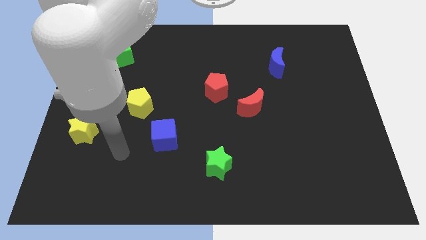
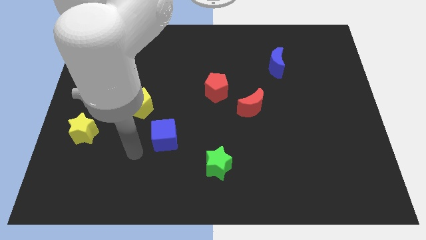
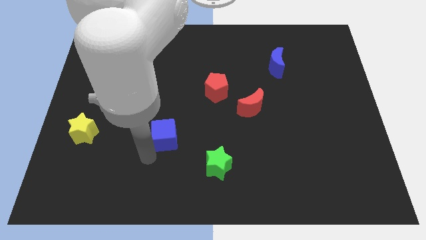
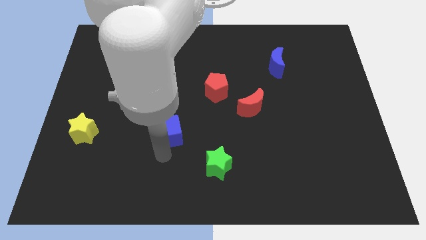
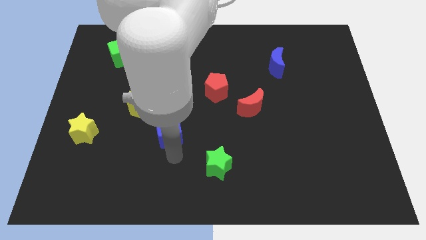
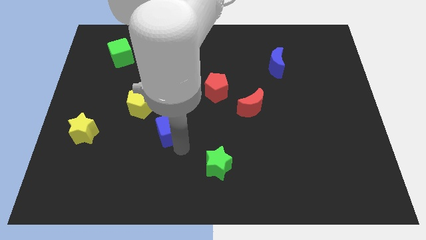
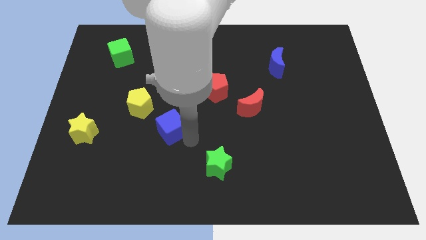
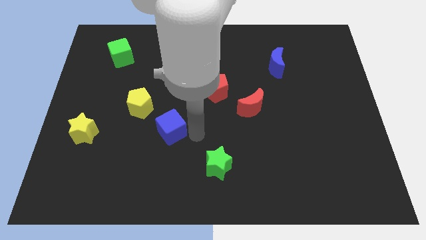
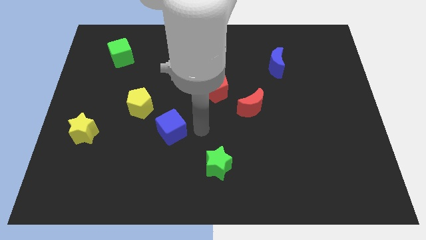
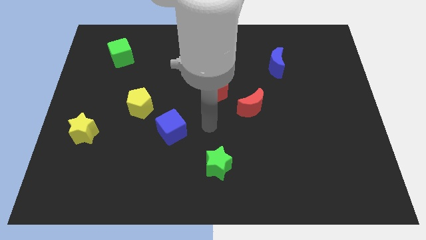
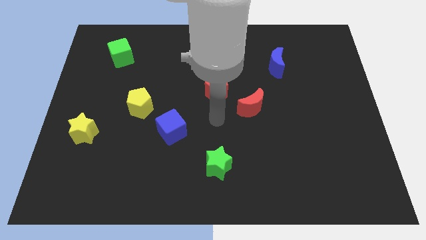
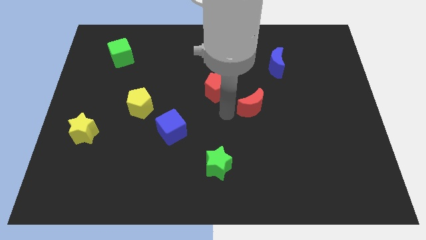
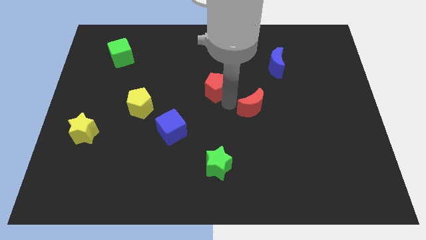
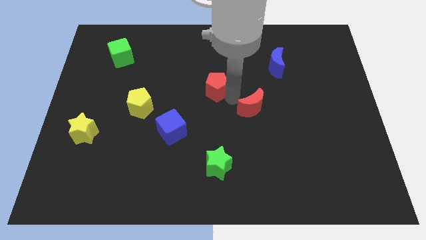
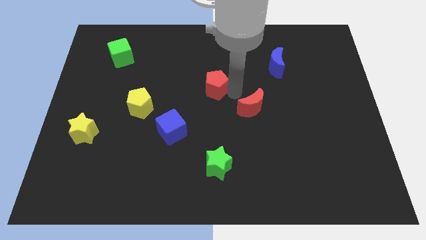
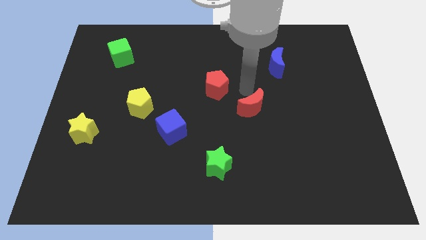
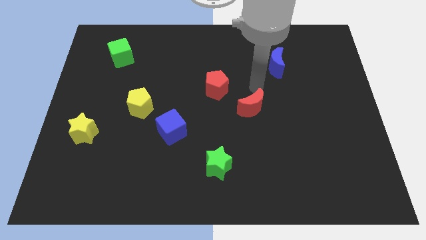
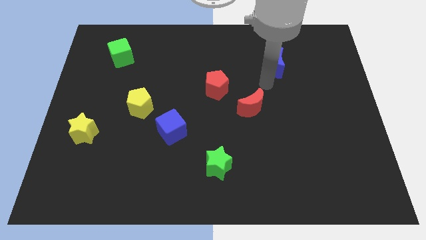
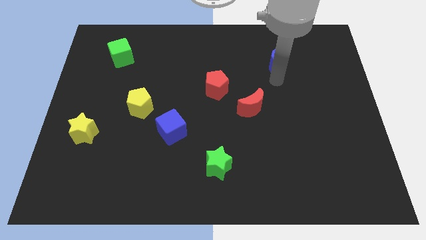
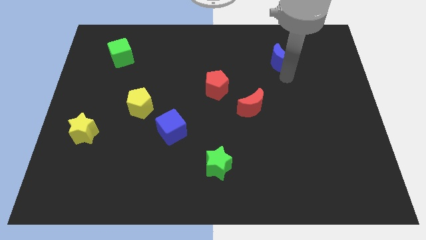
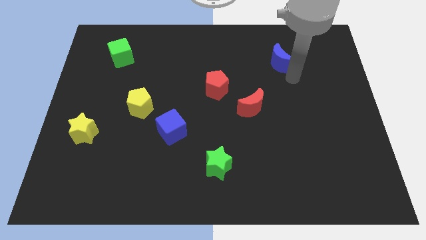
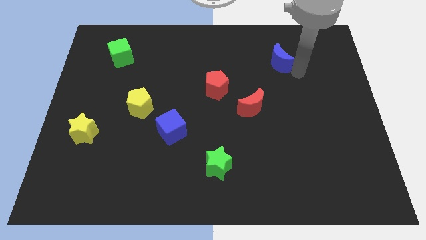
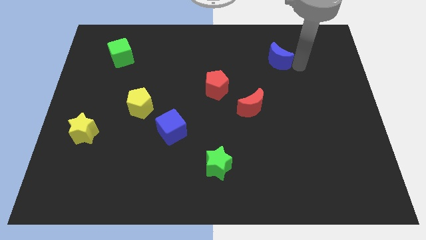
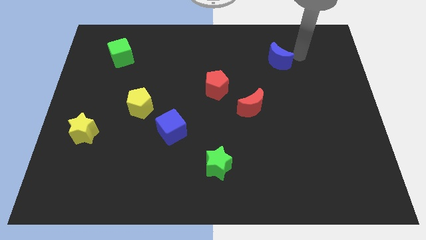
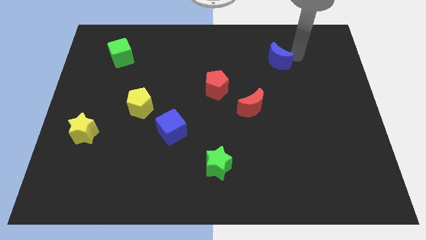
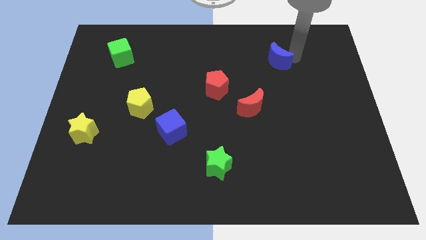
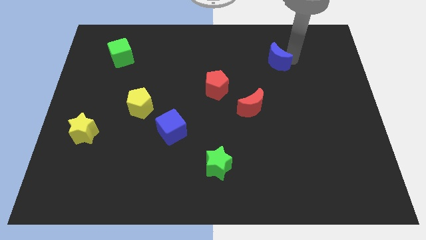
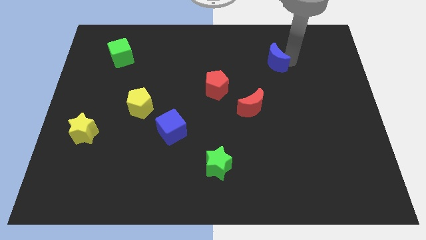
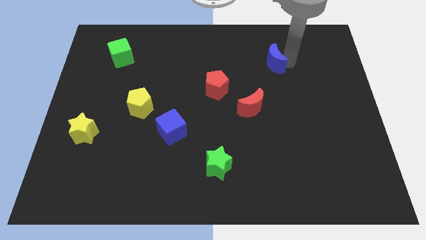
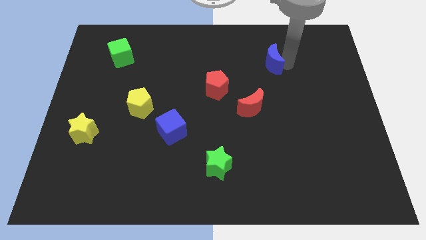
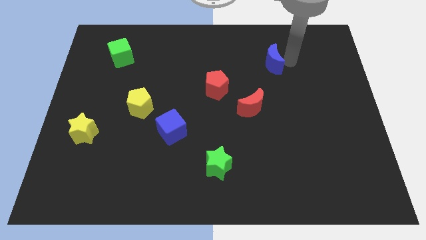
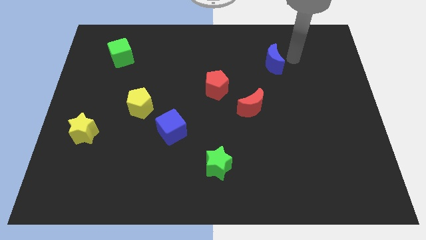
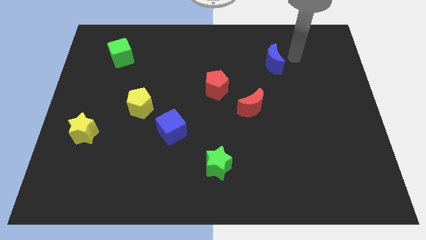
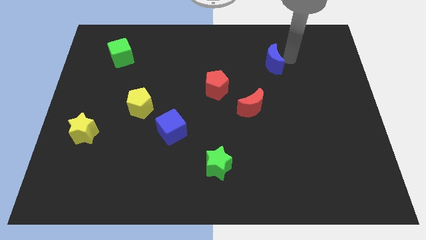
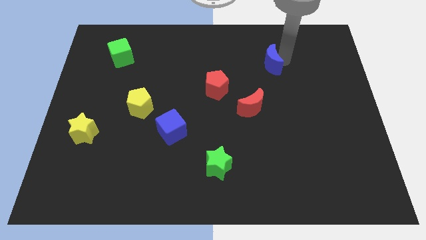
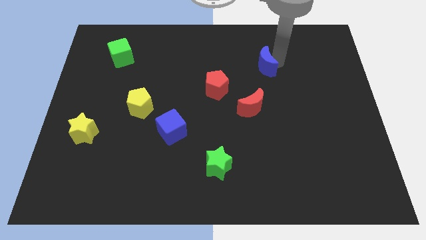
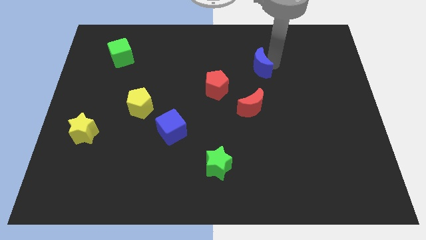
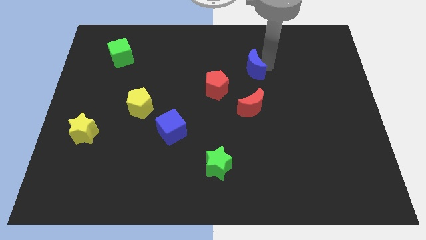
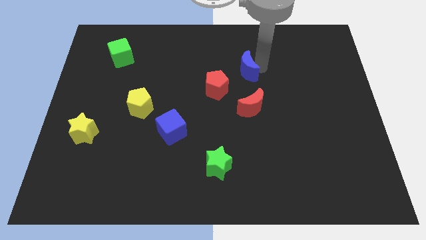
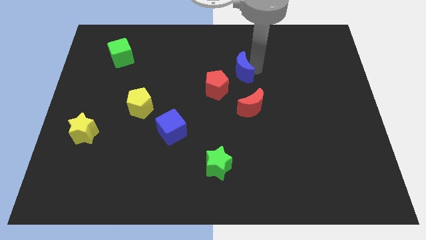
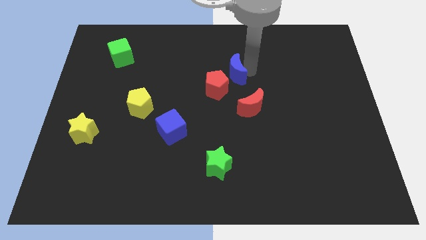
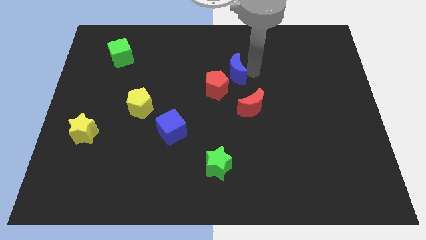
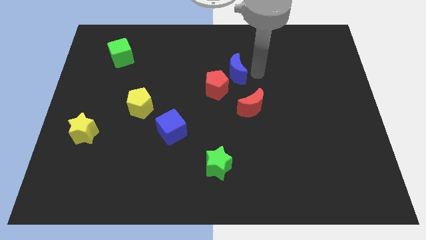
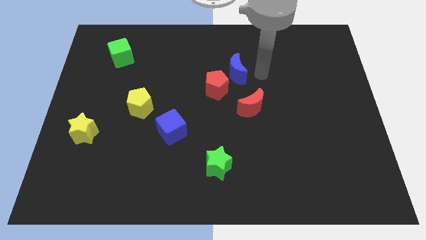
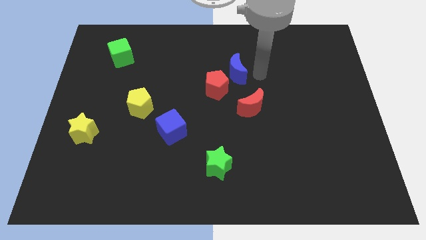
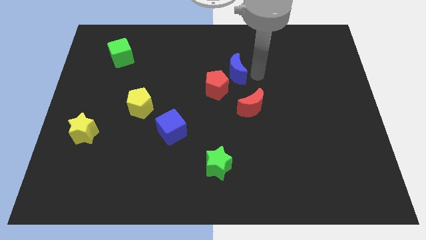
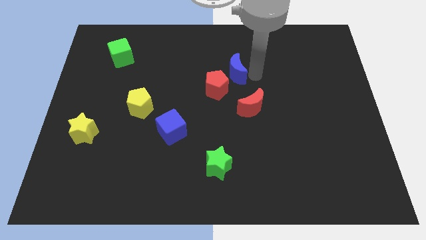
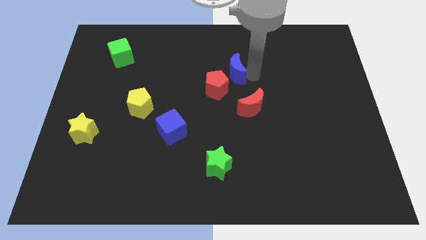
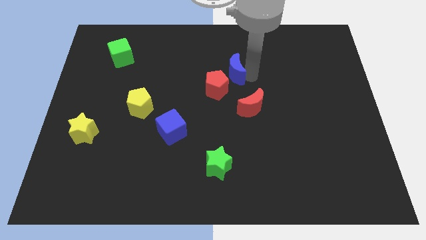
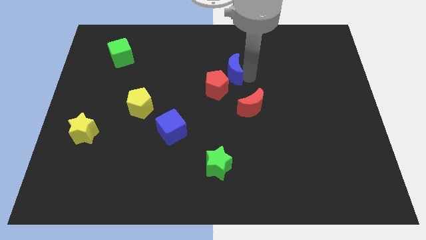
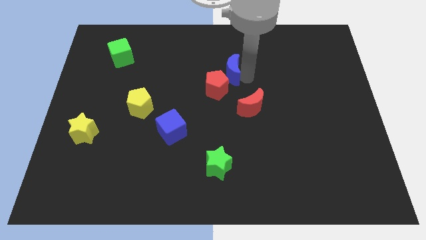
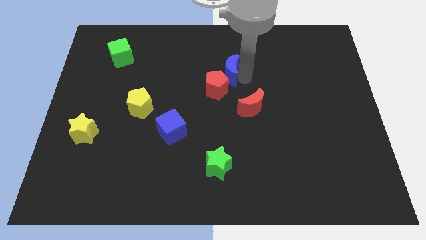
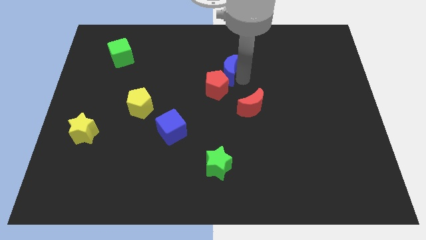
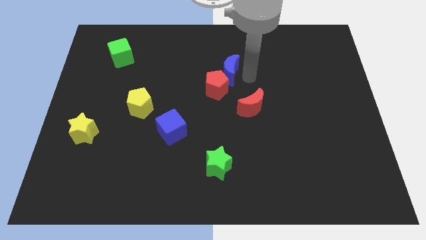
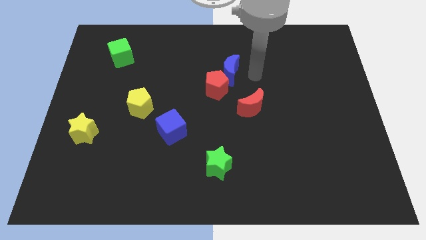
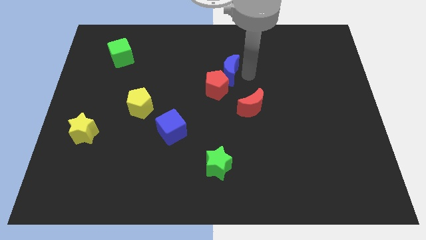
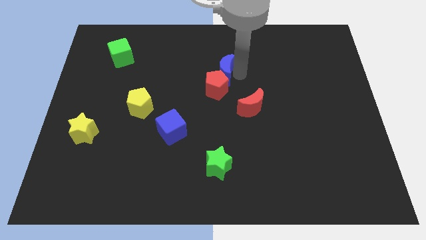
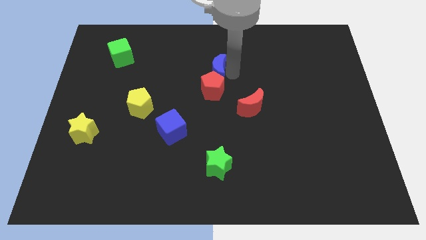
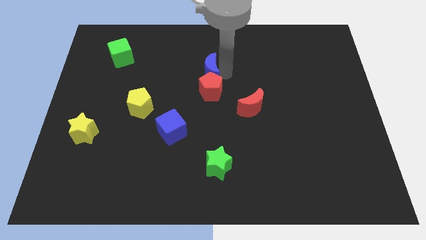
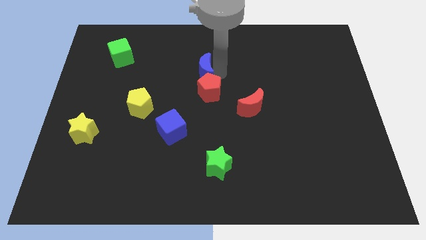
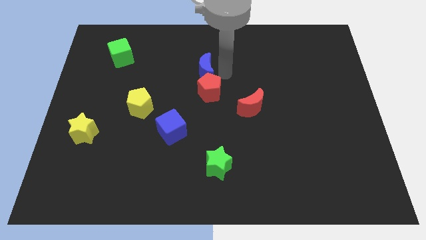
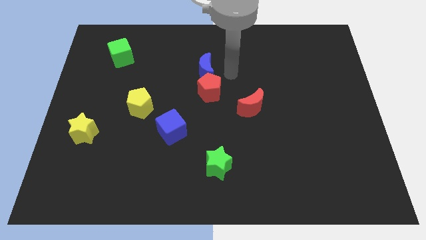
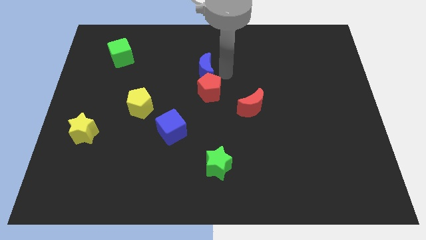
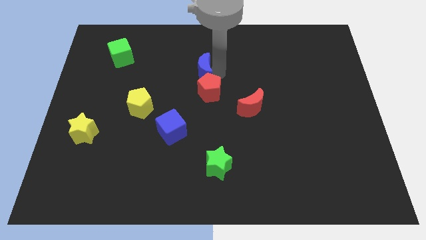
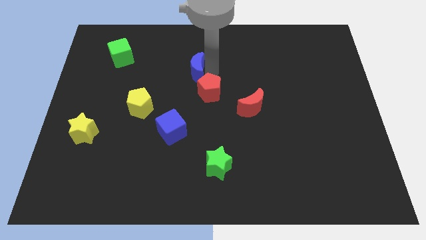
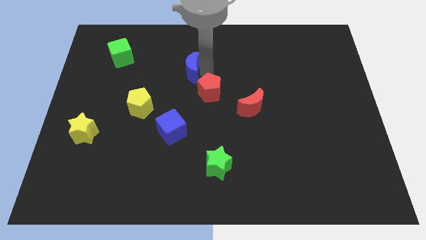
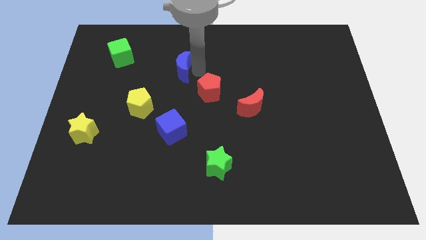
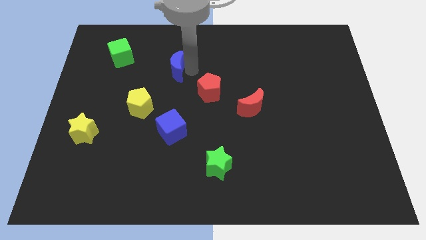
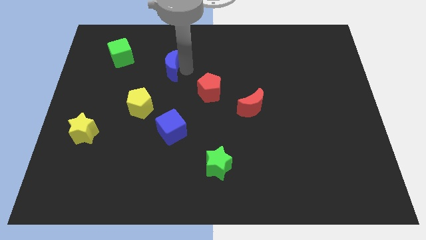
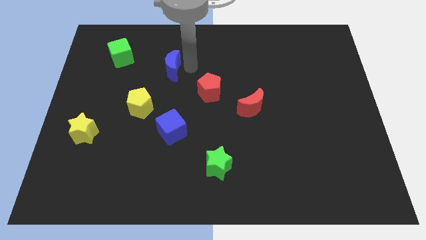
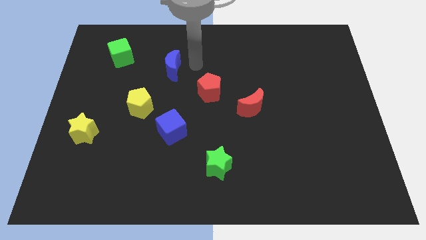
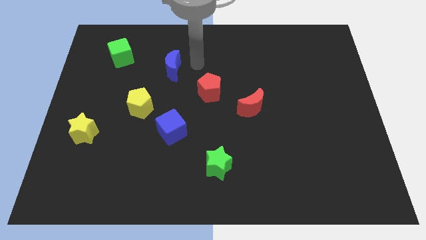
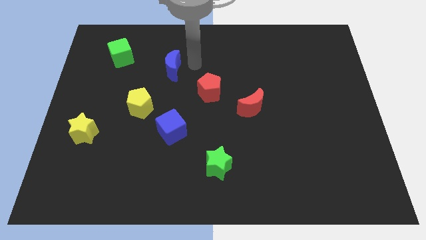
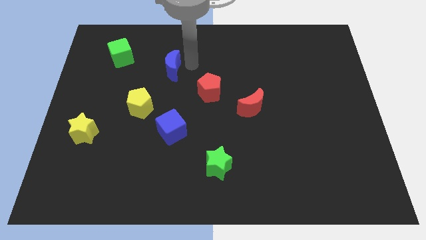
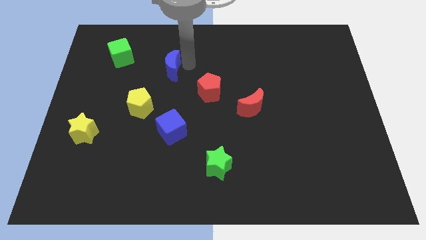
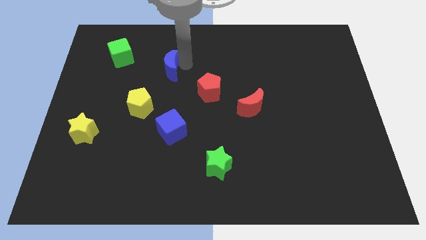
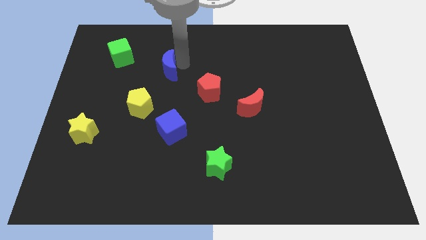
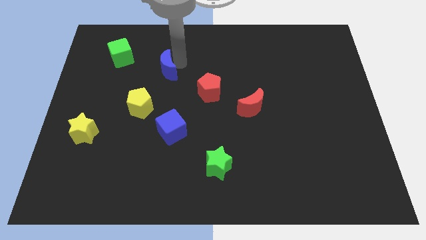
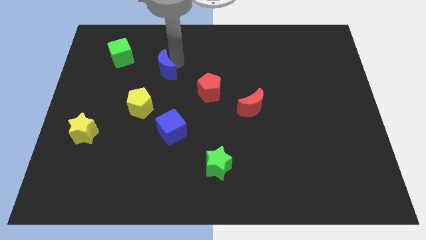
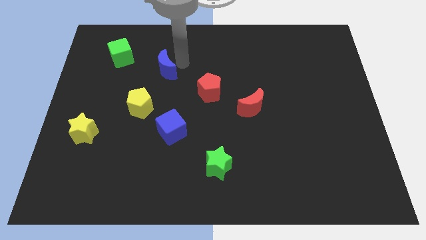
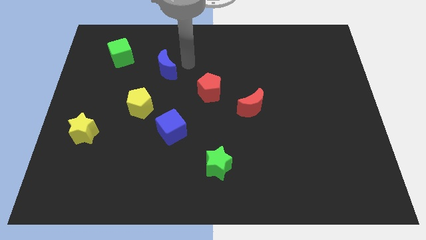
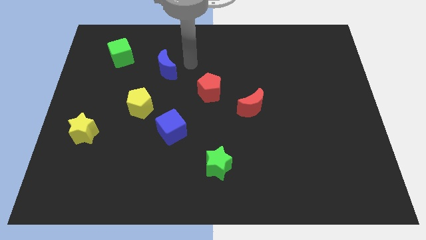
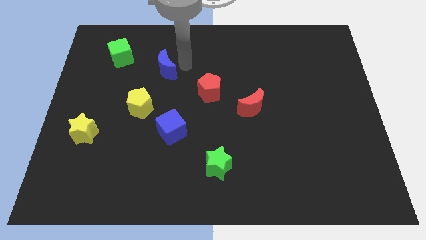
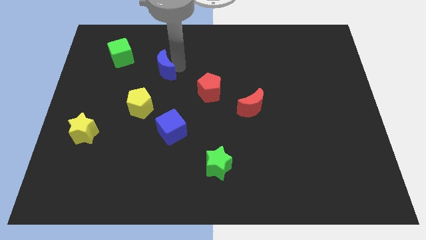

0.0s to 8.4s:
put the blue moon to the top of the yellow pentagon
